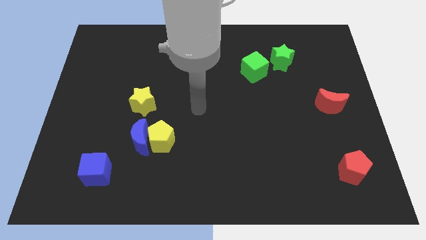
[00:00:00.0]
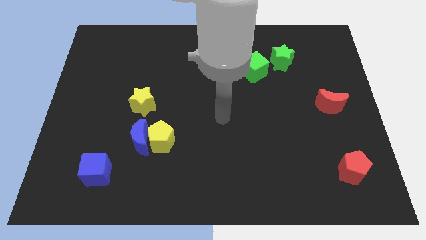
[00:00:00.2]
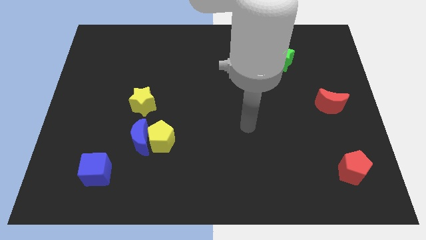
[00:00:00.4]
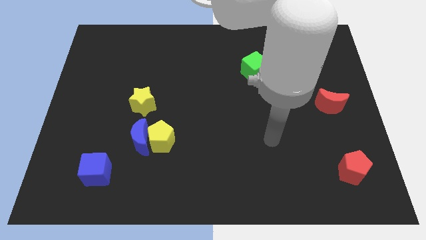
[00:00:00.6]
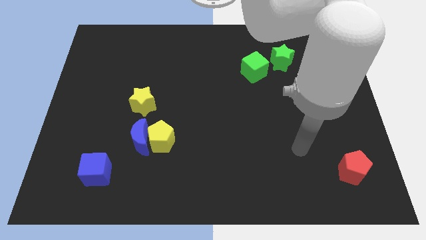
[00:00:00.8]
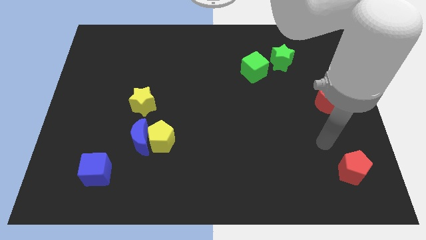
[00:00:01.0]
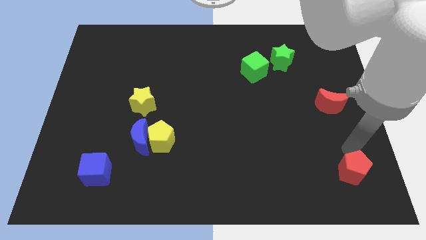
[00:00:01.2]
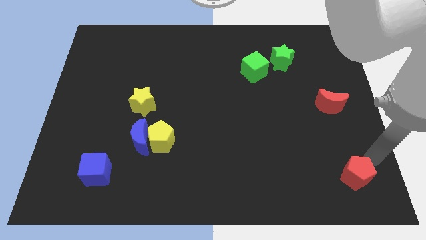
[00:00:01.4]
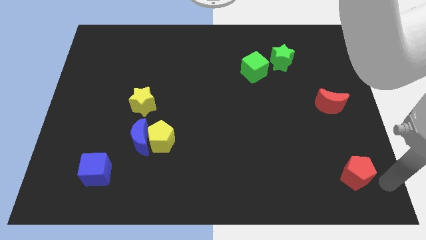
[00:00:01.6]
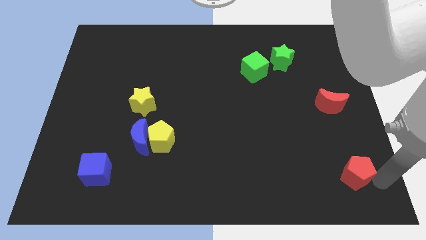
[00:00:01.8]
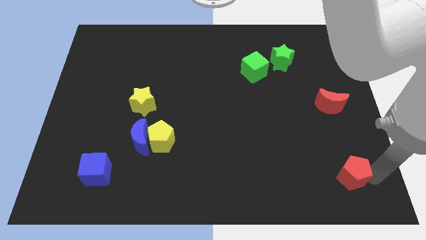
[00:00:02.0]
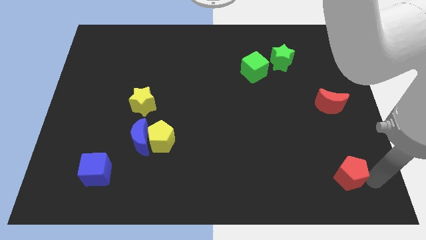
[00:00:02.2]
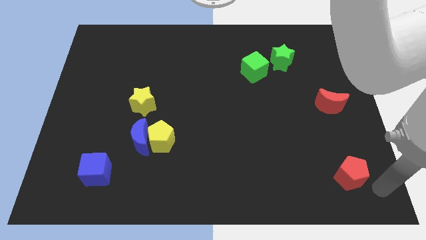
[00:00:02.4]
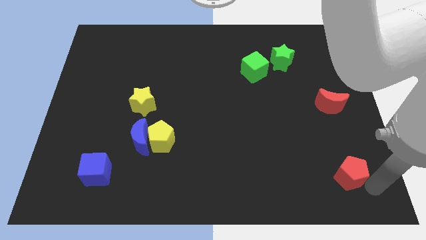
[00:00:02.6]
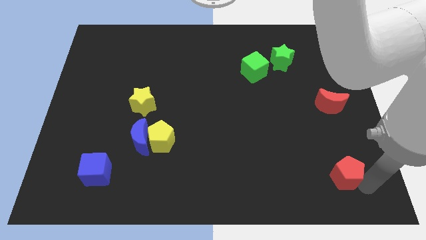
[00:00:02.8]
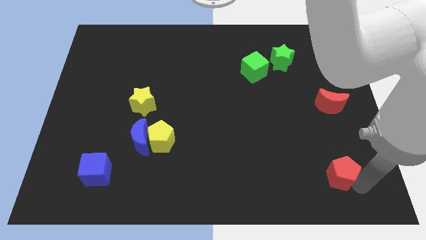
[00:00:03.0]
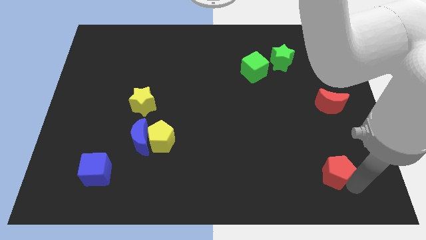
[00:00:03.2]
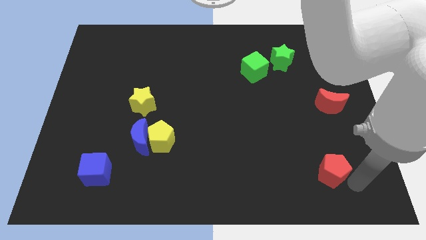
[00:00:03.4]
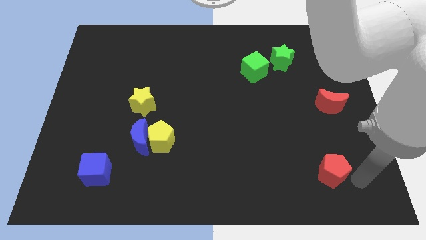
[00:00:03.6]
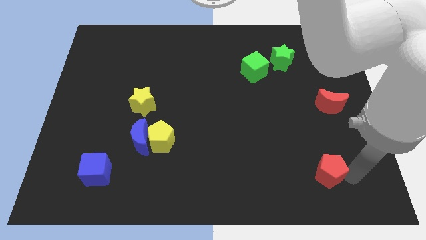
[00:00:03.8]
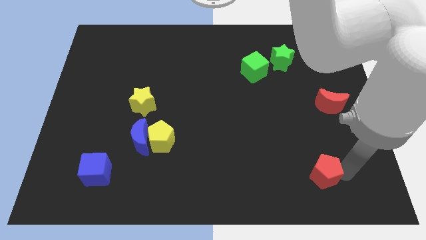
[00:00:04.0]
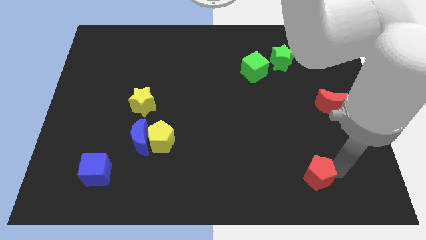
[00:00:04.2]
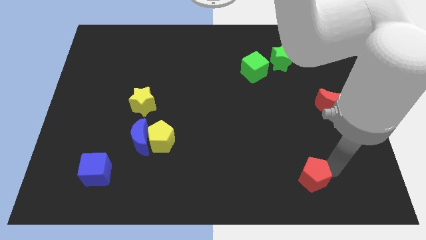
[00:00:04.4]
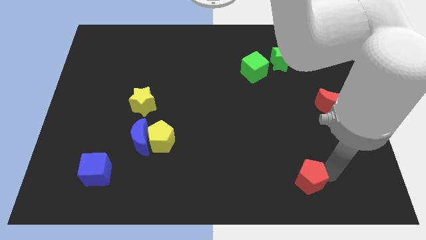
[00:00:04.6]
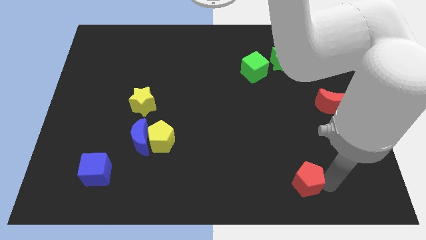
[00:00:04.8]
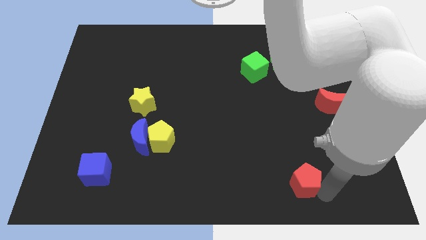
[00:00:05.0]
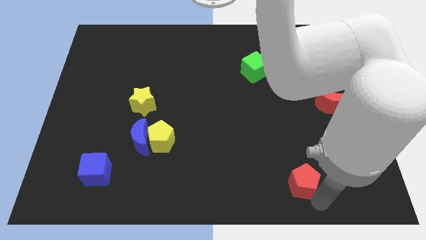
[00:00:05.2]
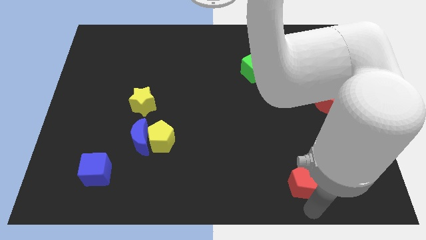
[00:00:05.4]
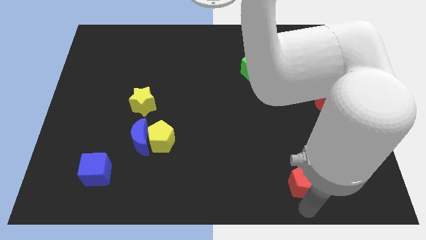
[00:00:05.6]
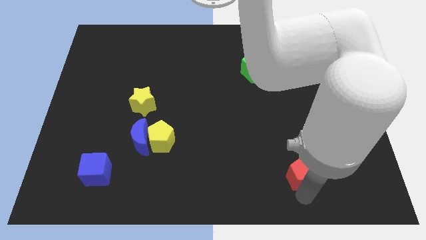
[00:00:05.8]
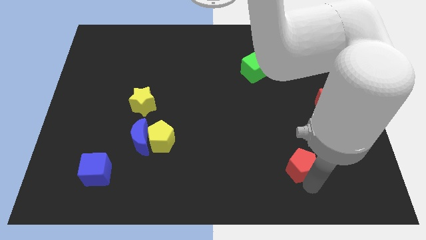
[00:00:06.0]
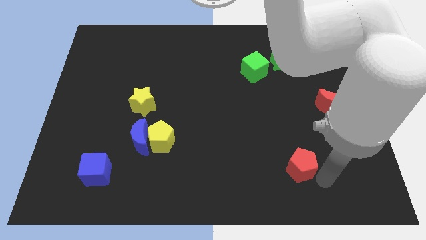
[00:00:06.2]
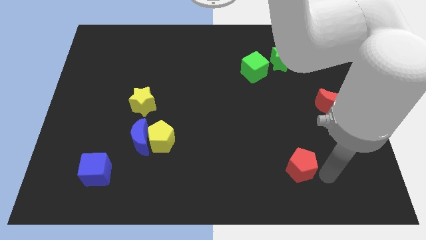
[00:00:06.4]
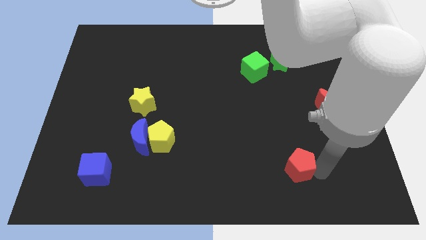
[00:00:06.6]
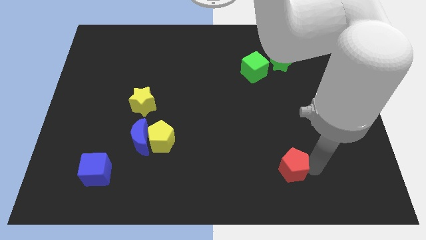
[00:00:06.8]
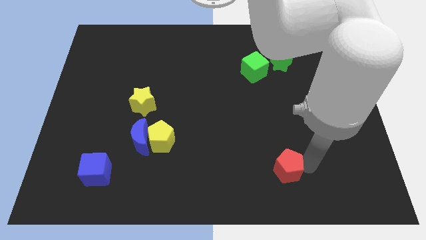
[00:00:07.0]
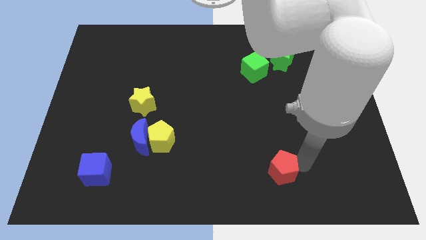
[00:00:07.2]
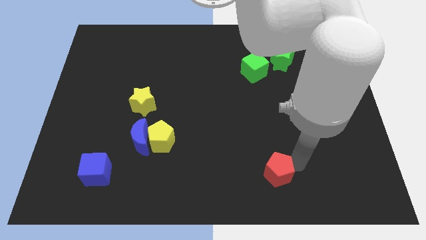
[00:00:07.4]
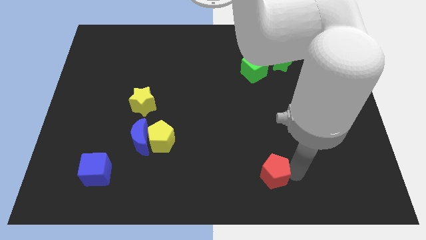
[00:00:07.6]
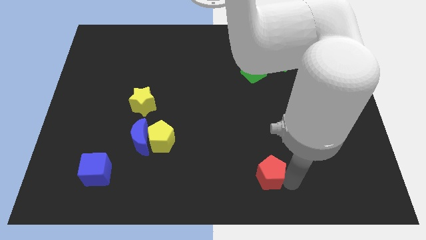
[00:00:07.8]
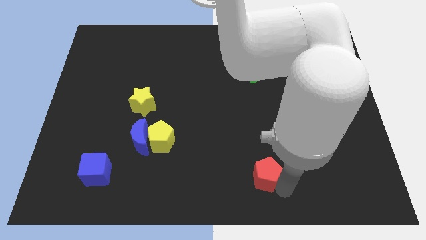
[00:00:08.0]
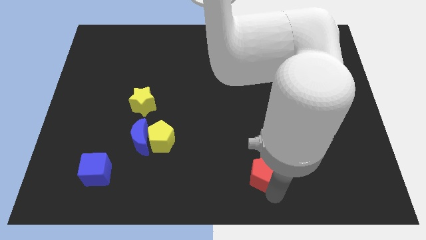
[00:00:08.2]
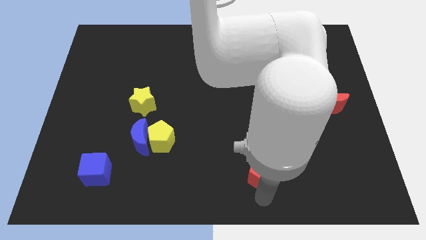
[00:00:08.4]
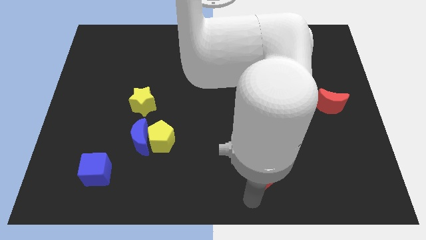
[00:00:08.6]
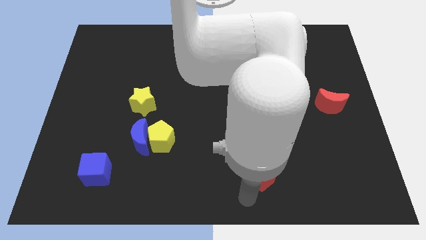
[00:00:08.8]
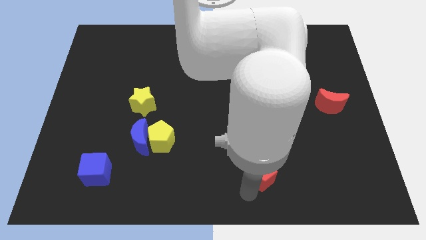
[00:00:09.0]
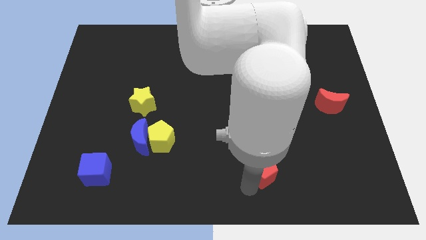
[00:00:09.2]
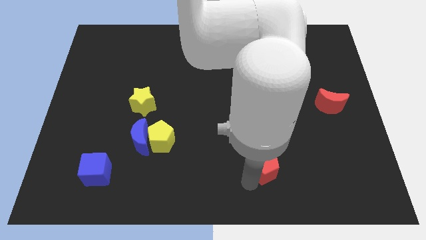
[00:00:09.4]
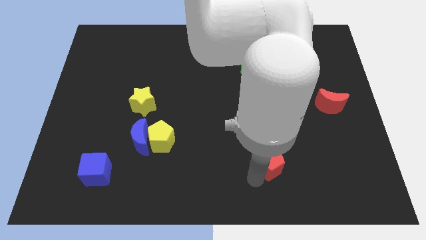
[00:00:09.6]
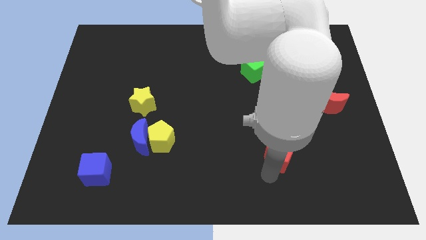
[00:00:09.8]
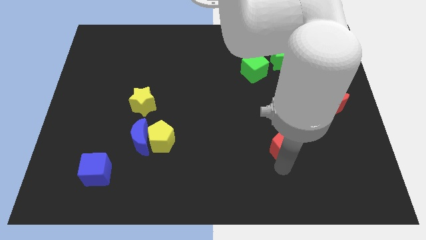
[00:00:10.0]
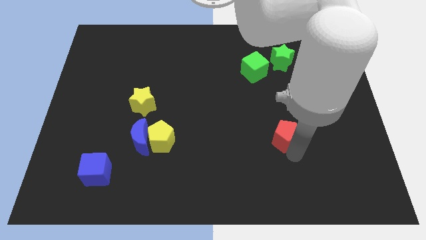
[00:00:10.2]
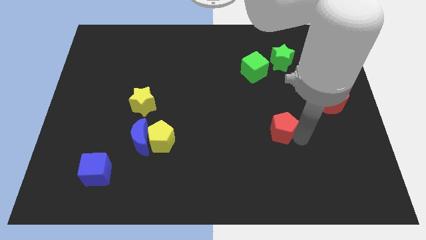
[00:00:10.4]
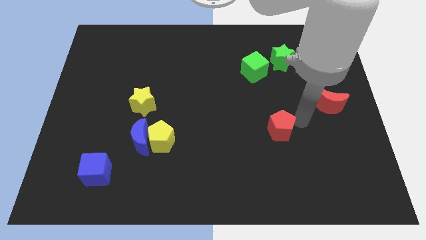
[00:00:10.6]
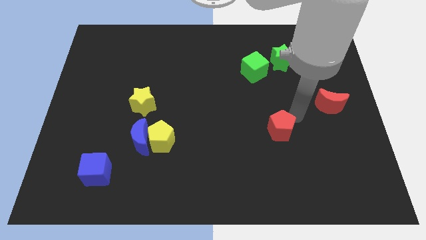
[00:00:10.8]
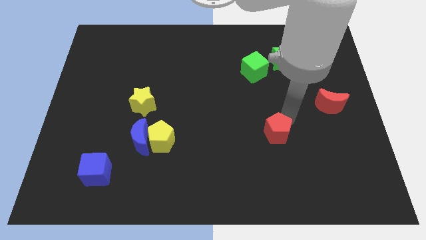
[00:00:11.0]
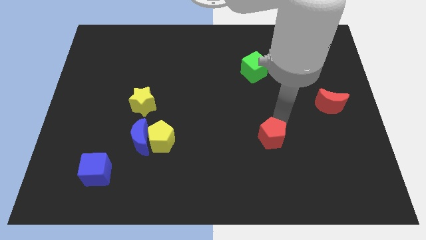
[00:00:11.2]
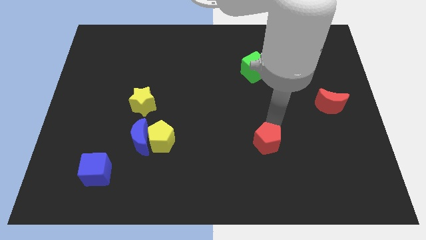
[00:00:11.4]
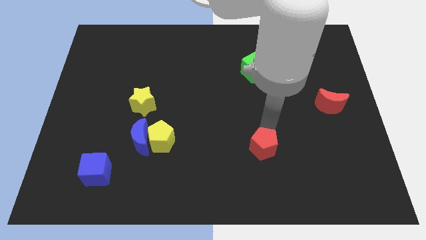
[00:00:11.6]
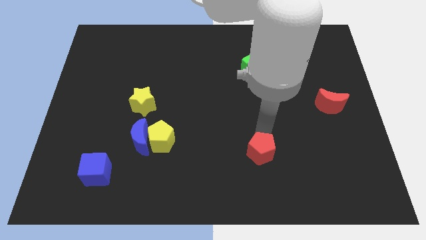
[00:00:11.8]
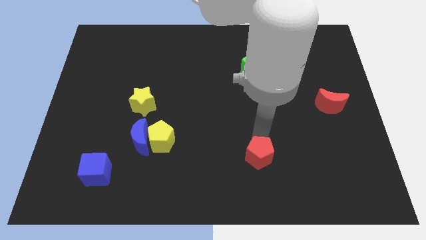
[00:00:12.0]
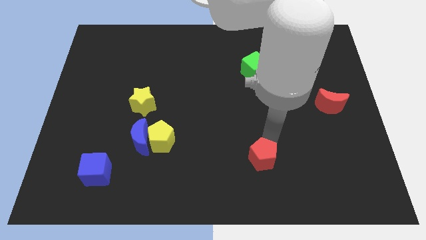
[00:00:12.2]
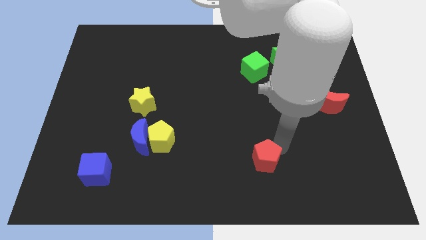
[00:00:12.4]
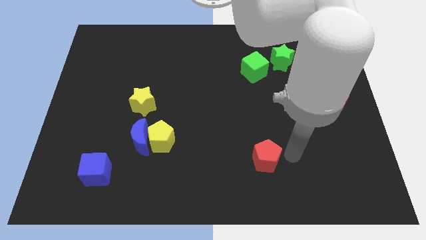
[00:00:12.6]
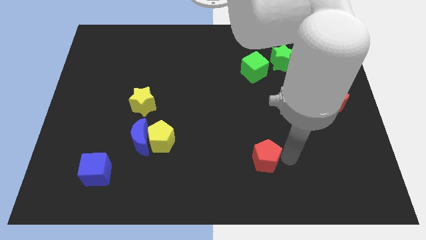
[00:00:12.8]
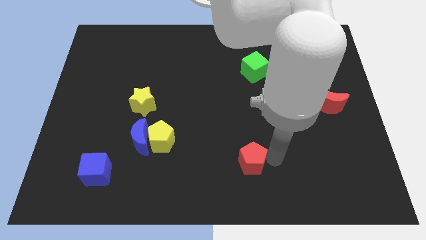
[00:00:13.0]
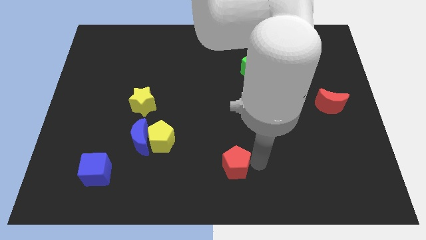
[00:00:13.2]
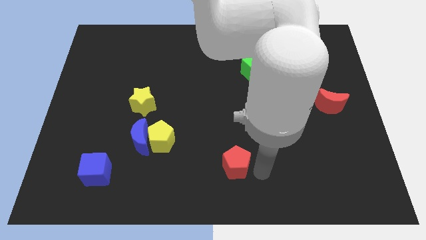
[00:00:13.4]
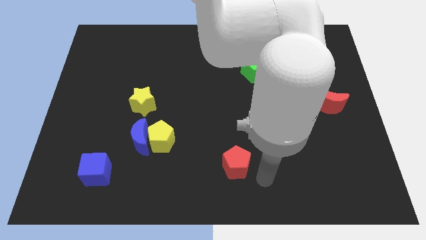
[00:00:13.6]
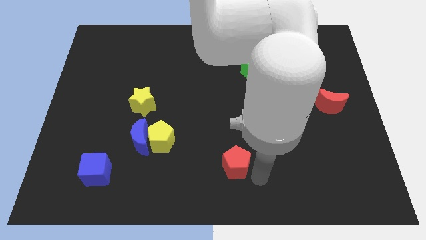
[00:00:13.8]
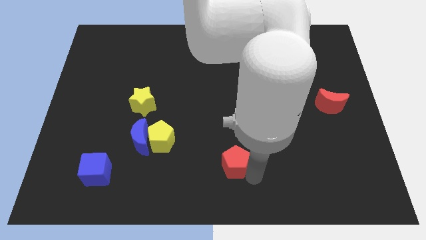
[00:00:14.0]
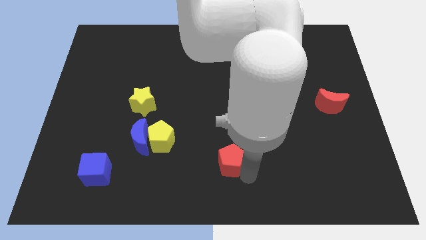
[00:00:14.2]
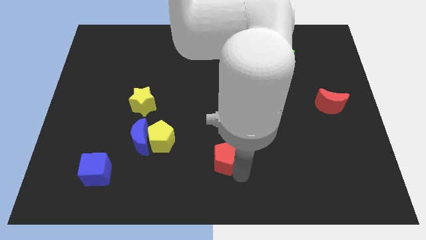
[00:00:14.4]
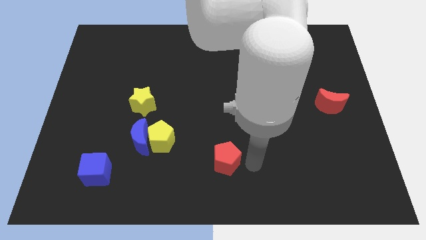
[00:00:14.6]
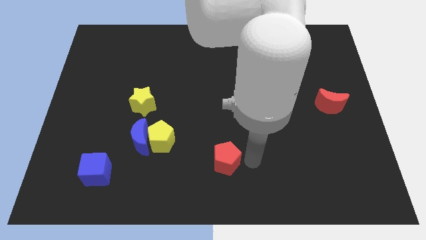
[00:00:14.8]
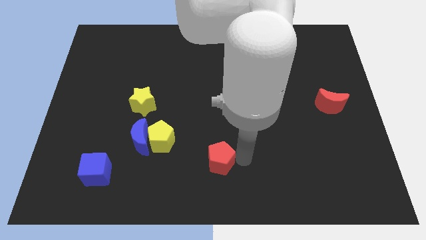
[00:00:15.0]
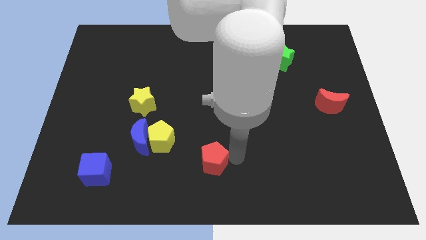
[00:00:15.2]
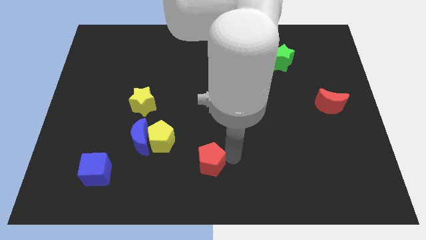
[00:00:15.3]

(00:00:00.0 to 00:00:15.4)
move the red pentagon to the bottom right of the yellow pentagon
